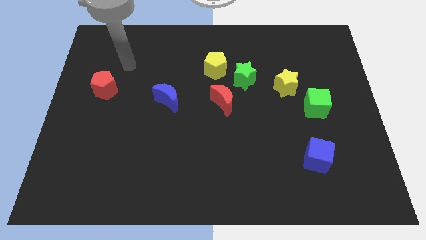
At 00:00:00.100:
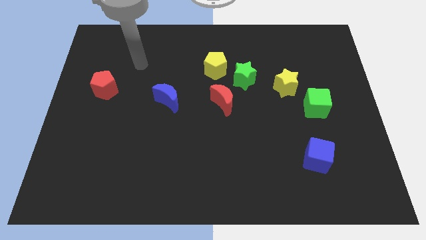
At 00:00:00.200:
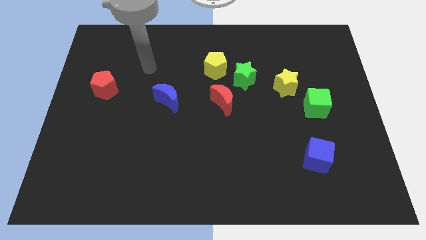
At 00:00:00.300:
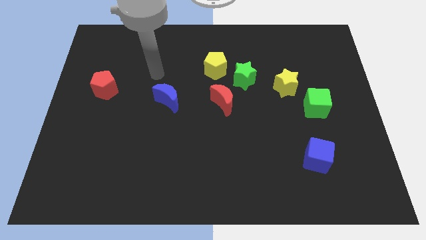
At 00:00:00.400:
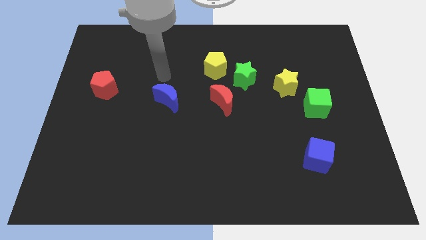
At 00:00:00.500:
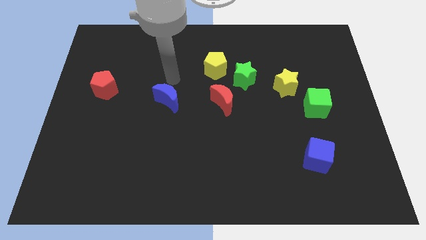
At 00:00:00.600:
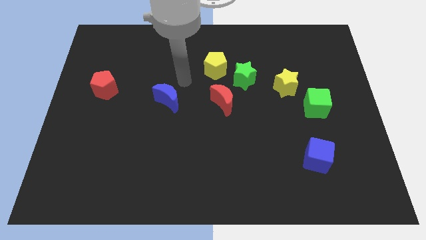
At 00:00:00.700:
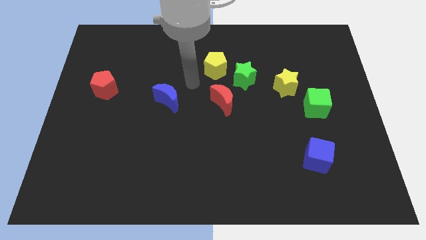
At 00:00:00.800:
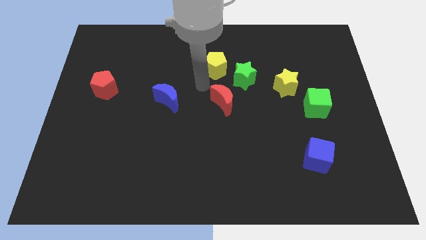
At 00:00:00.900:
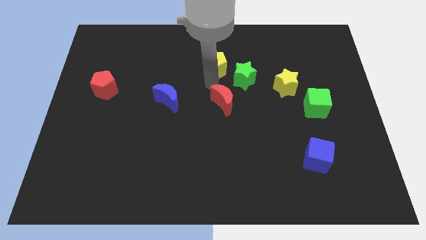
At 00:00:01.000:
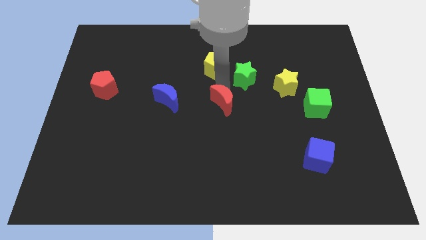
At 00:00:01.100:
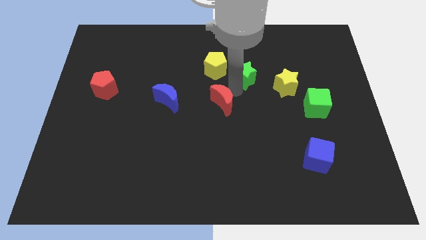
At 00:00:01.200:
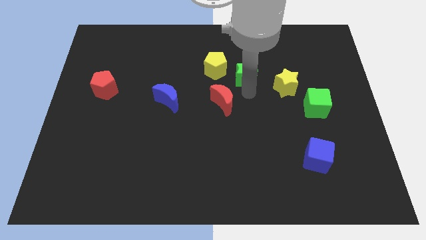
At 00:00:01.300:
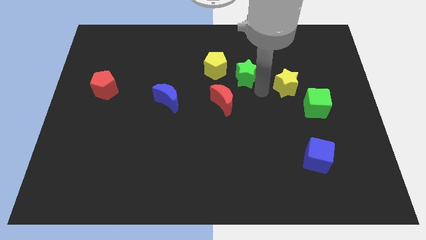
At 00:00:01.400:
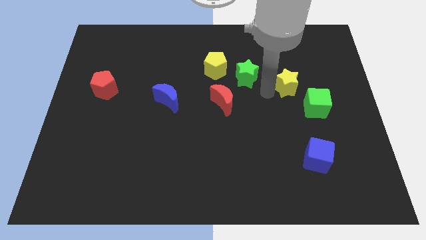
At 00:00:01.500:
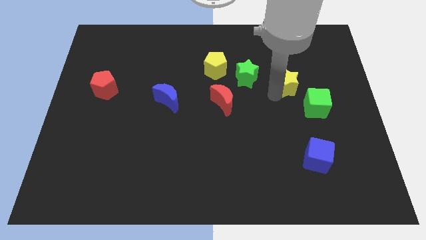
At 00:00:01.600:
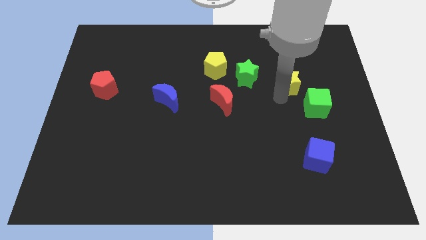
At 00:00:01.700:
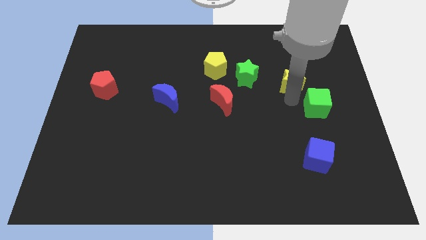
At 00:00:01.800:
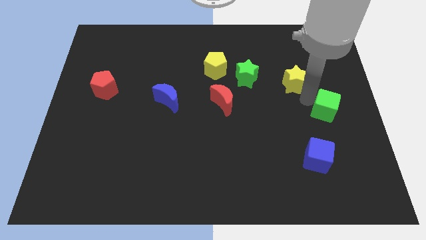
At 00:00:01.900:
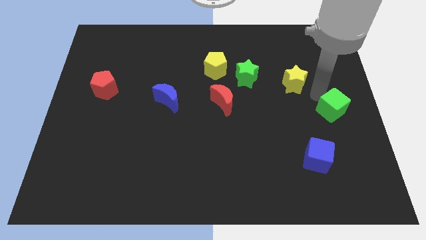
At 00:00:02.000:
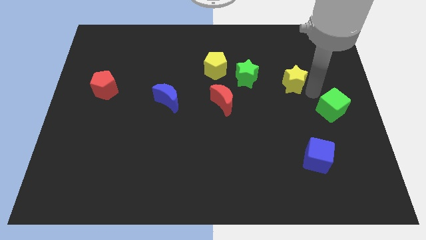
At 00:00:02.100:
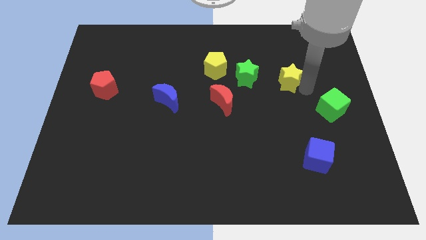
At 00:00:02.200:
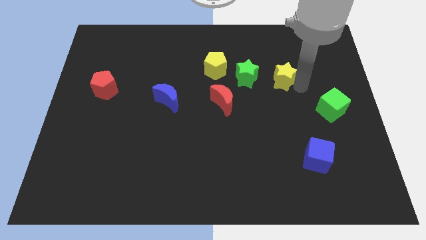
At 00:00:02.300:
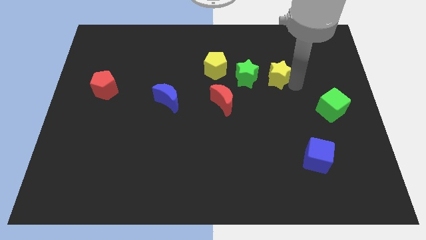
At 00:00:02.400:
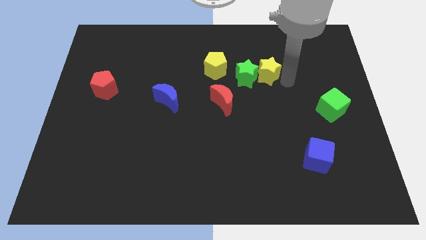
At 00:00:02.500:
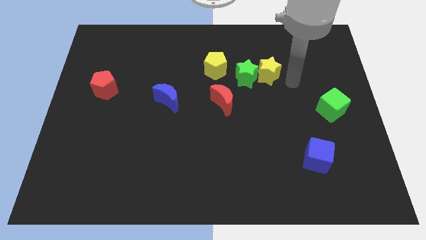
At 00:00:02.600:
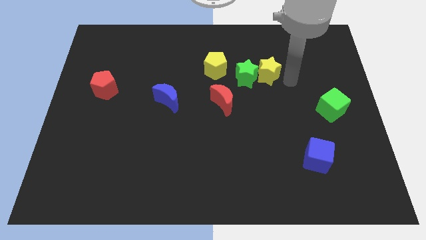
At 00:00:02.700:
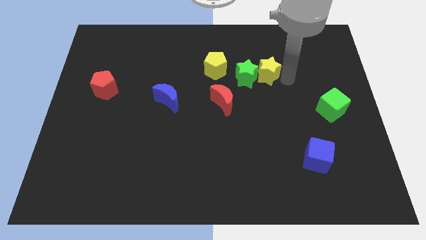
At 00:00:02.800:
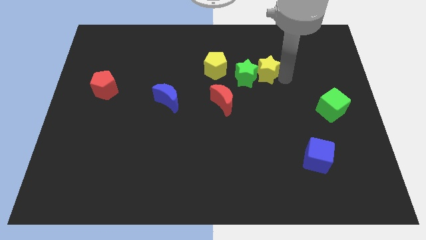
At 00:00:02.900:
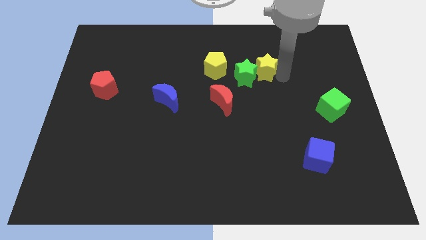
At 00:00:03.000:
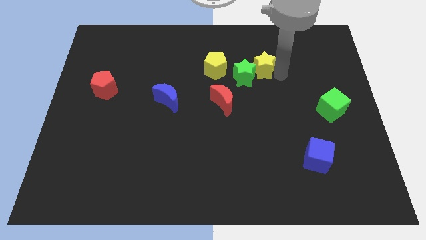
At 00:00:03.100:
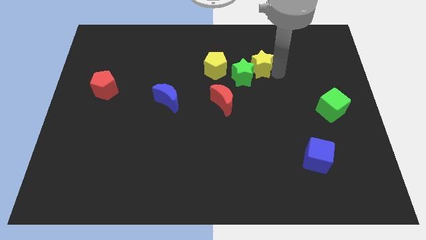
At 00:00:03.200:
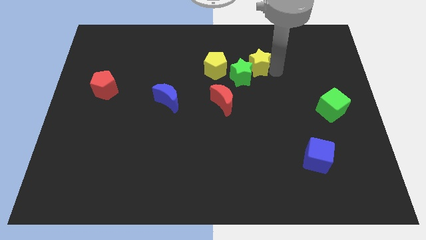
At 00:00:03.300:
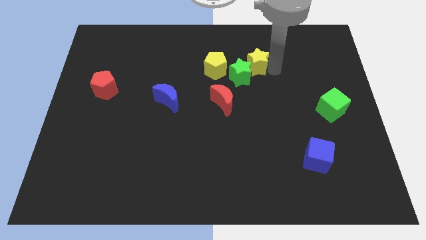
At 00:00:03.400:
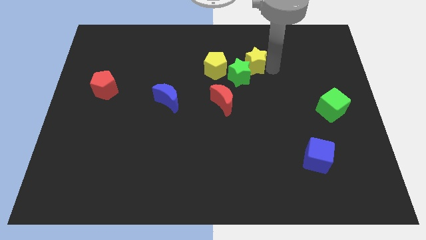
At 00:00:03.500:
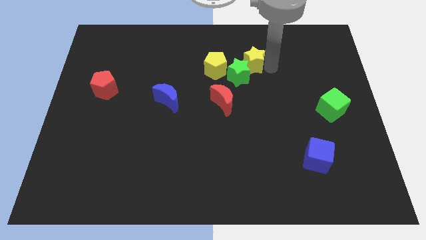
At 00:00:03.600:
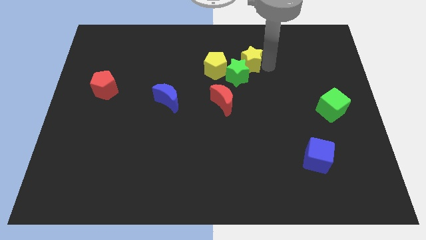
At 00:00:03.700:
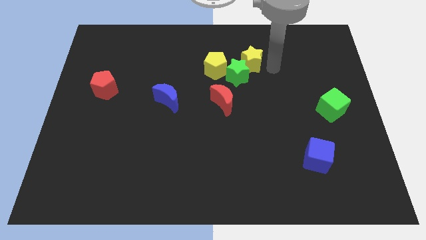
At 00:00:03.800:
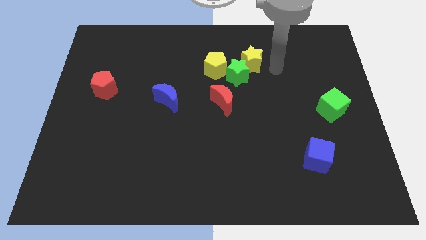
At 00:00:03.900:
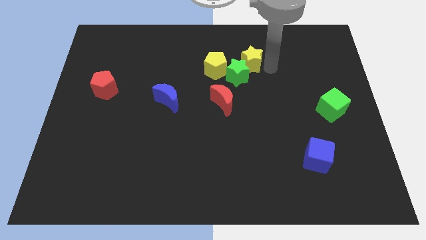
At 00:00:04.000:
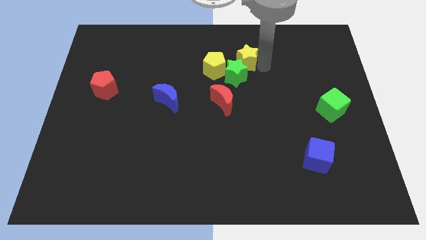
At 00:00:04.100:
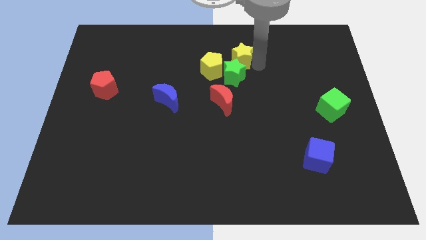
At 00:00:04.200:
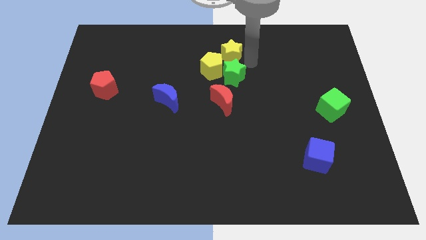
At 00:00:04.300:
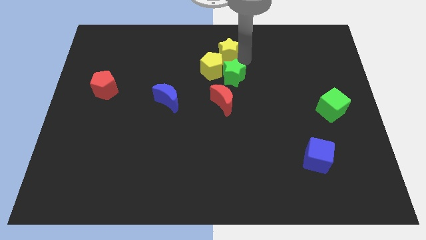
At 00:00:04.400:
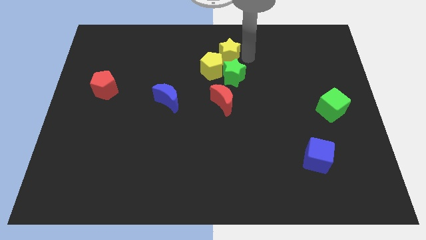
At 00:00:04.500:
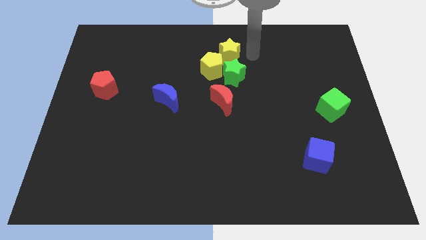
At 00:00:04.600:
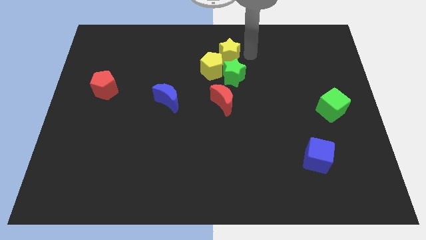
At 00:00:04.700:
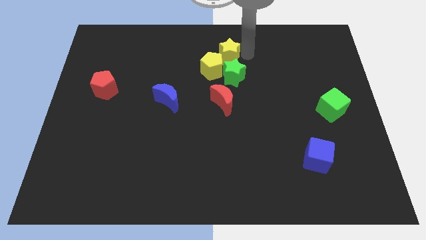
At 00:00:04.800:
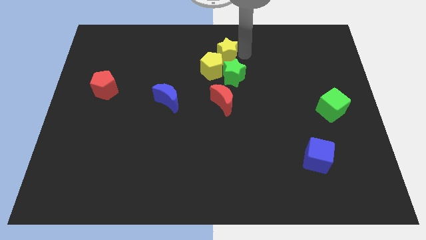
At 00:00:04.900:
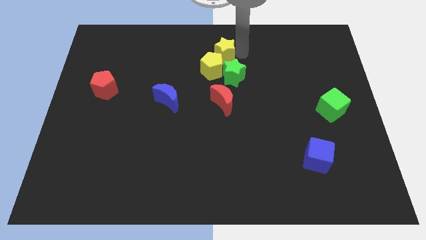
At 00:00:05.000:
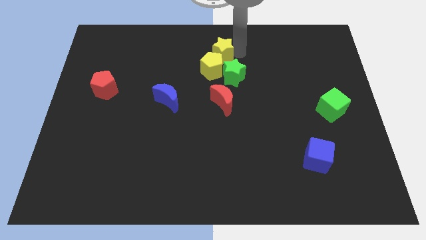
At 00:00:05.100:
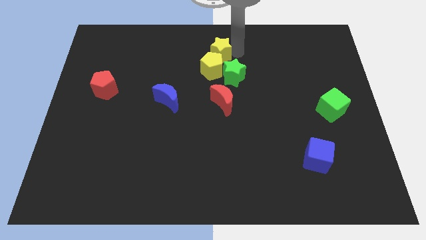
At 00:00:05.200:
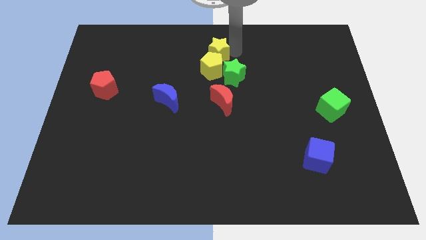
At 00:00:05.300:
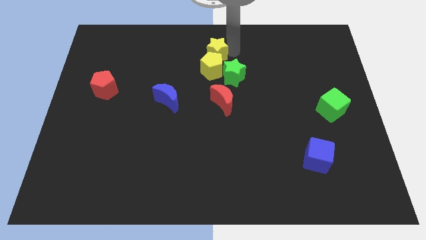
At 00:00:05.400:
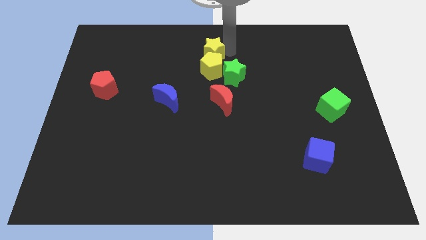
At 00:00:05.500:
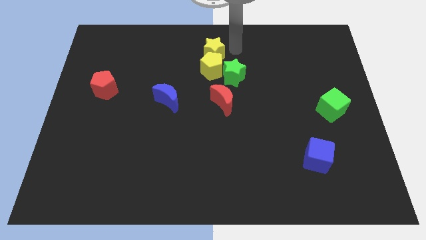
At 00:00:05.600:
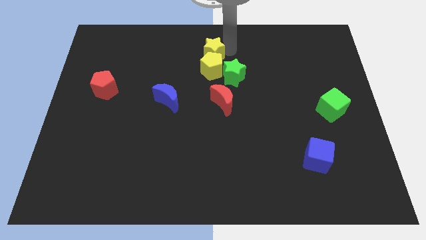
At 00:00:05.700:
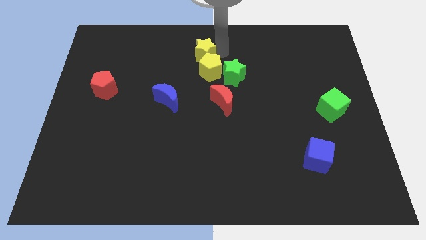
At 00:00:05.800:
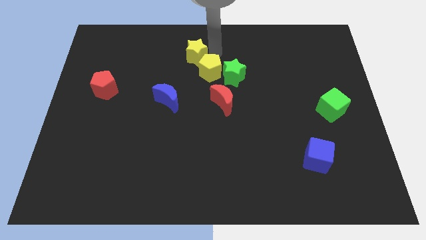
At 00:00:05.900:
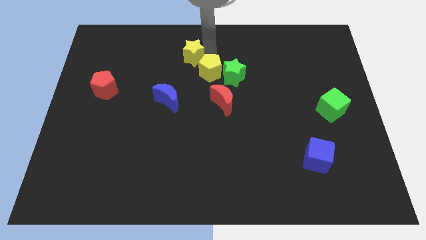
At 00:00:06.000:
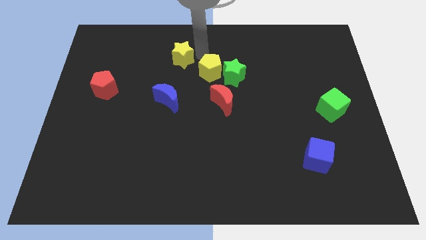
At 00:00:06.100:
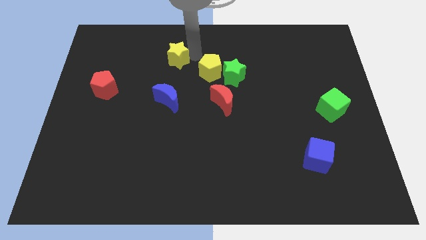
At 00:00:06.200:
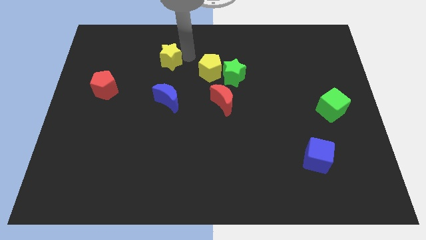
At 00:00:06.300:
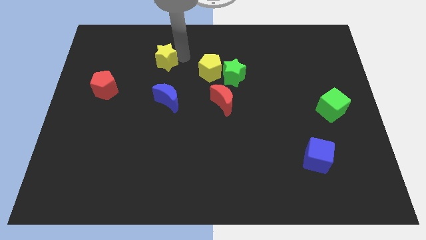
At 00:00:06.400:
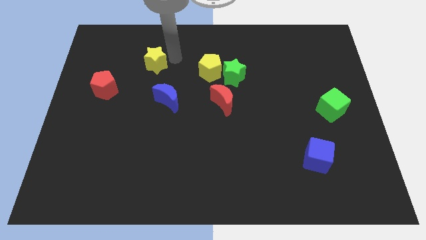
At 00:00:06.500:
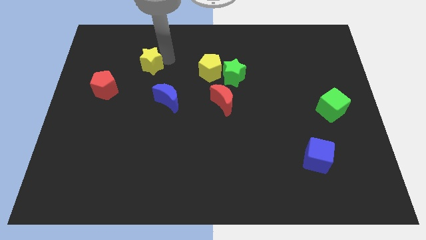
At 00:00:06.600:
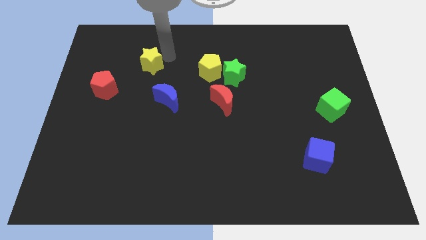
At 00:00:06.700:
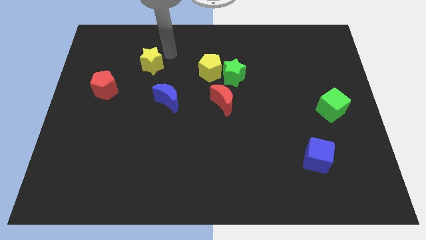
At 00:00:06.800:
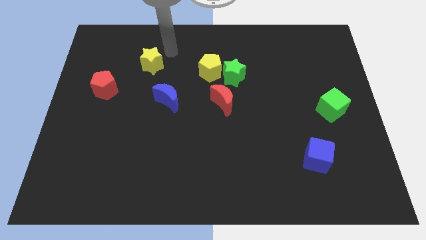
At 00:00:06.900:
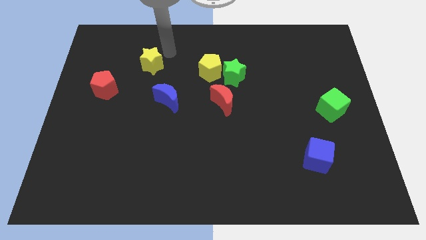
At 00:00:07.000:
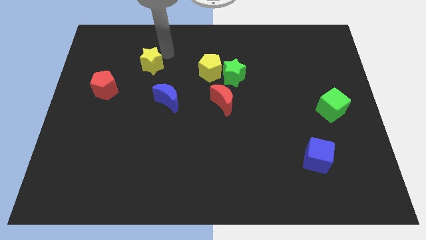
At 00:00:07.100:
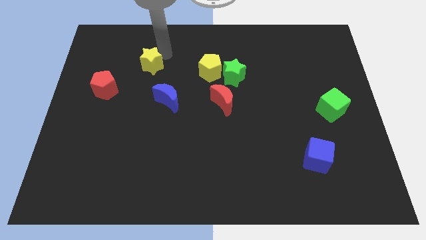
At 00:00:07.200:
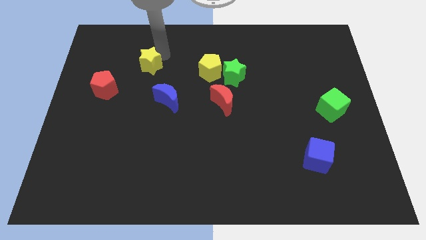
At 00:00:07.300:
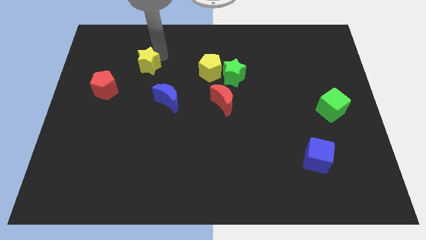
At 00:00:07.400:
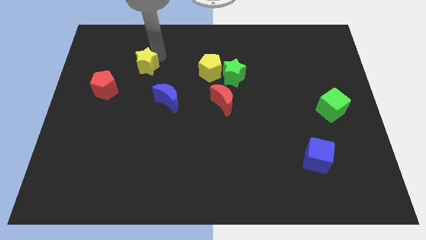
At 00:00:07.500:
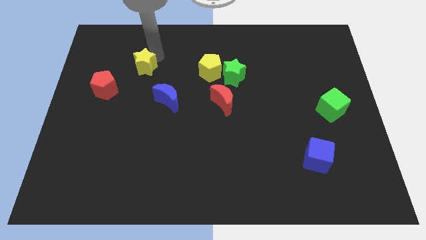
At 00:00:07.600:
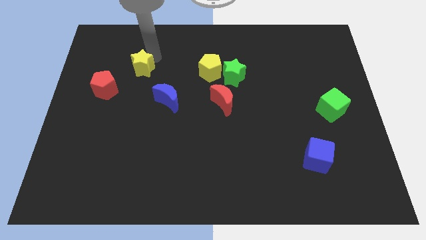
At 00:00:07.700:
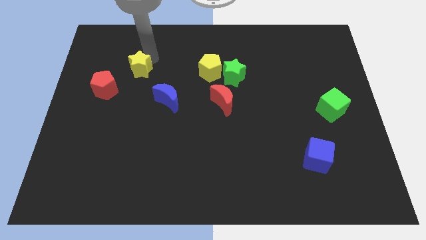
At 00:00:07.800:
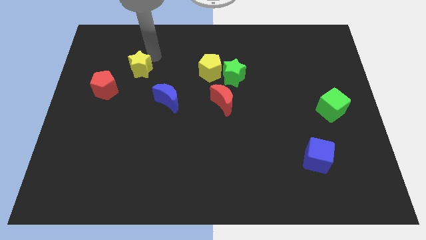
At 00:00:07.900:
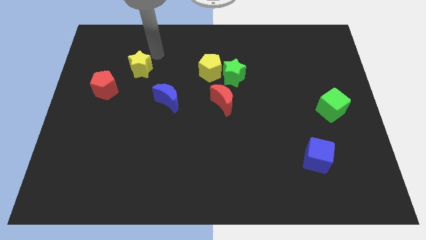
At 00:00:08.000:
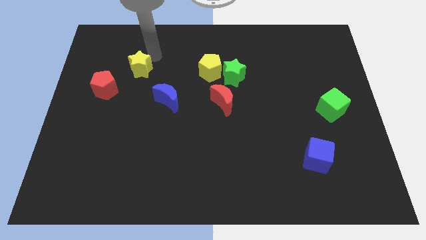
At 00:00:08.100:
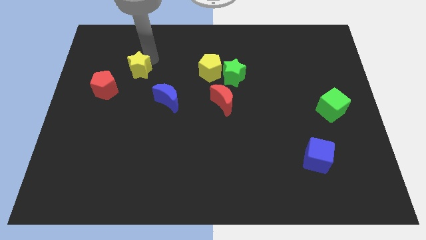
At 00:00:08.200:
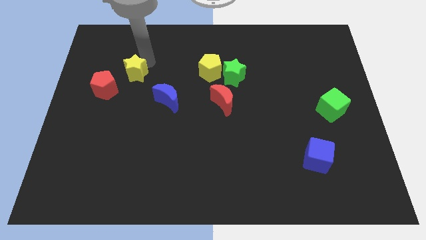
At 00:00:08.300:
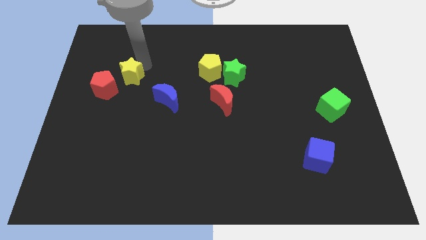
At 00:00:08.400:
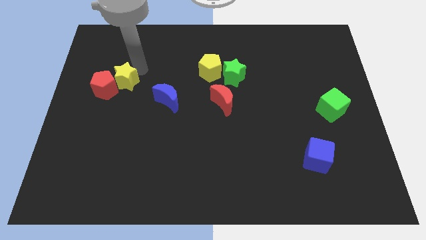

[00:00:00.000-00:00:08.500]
move the yellow star close to the red pentagon
